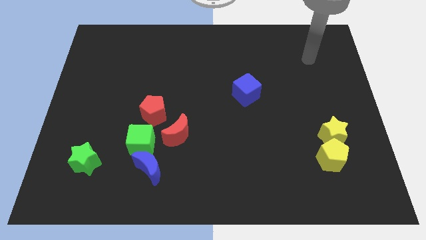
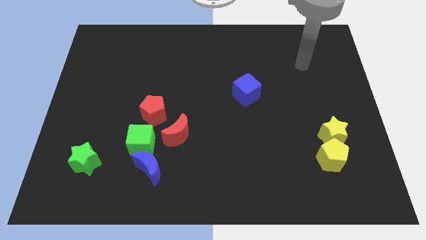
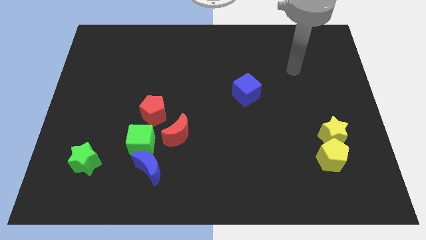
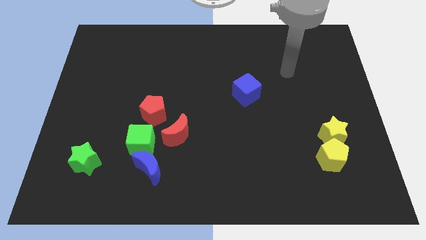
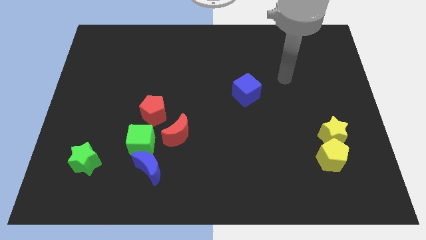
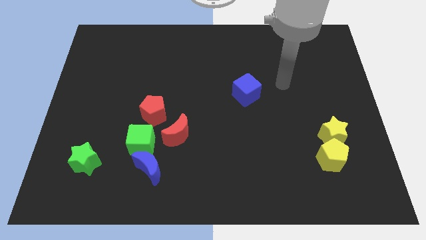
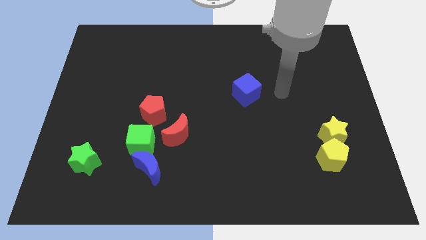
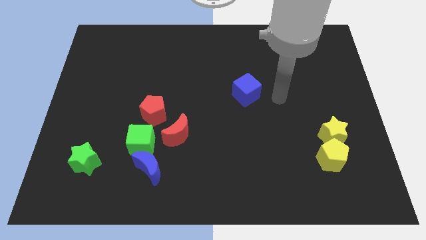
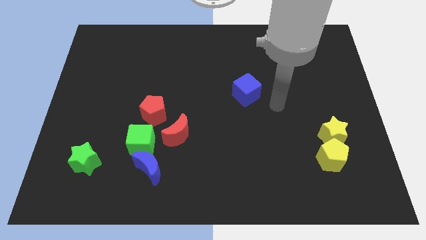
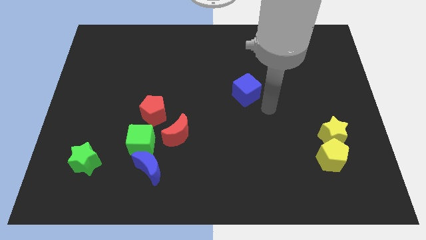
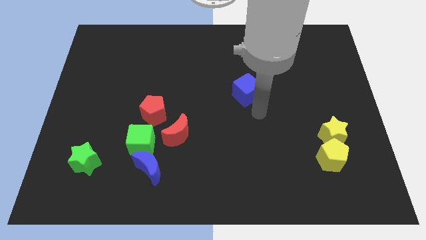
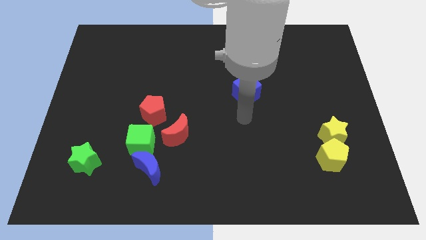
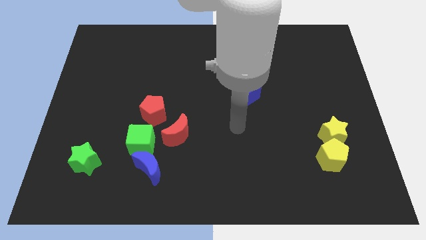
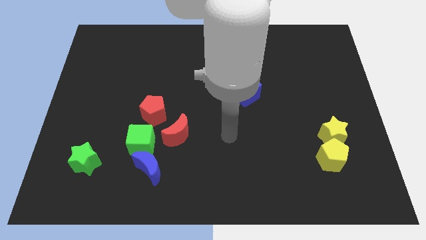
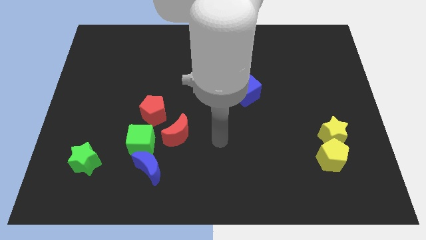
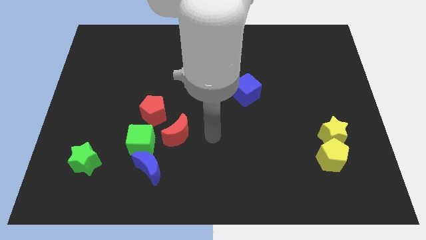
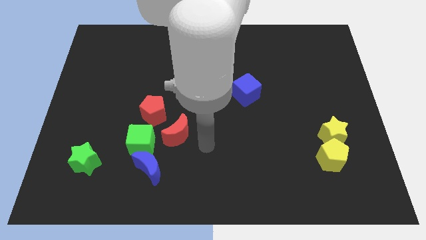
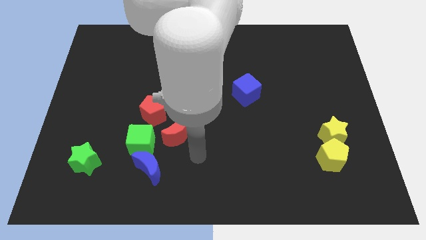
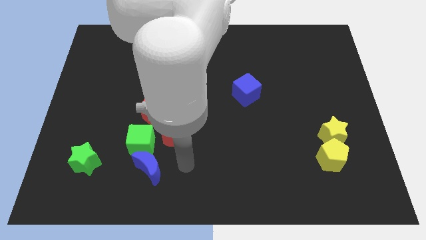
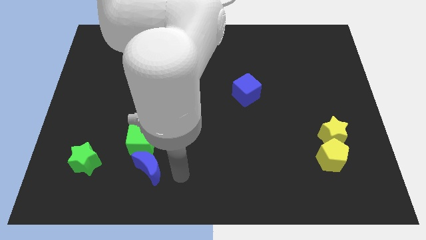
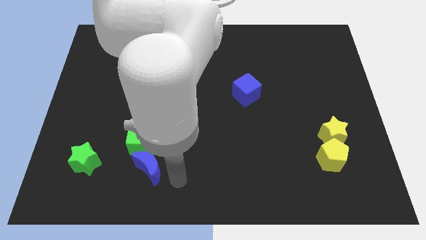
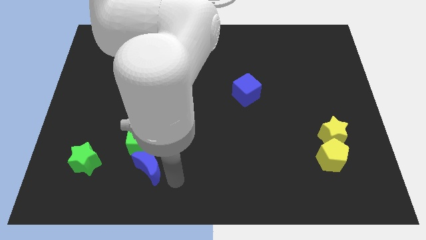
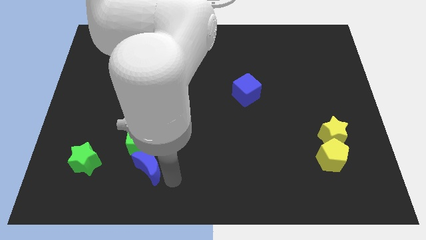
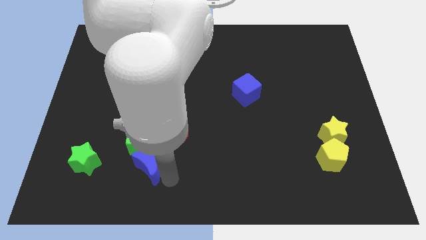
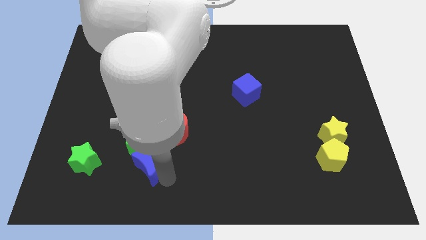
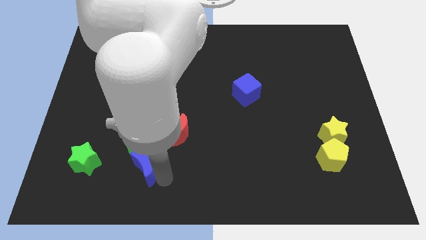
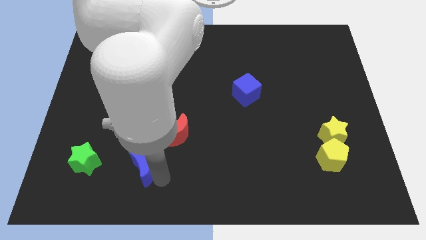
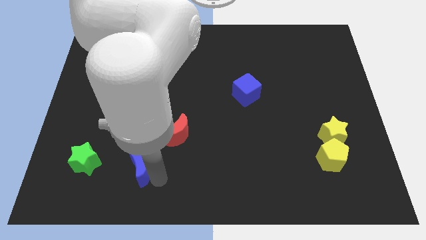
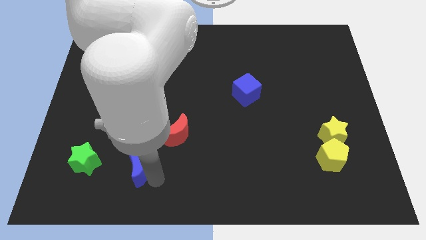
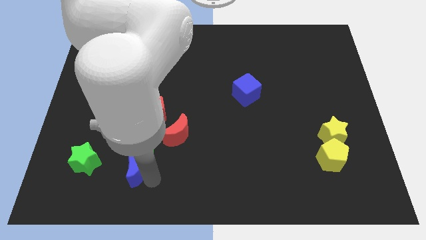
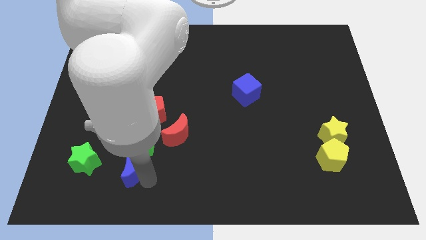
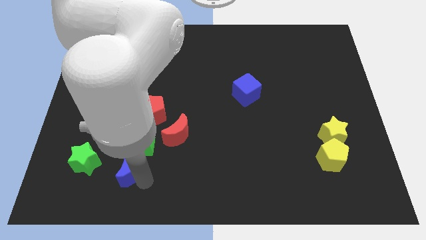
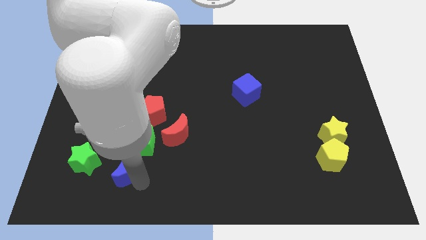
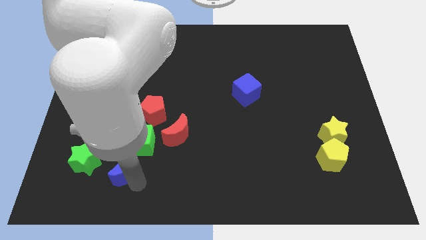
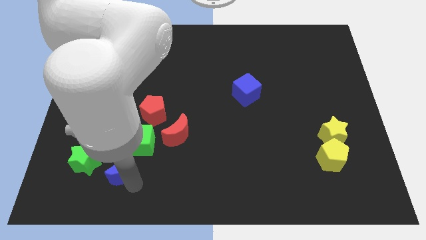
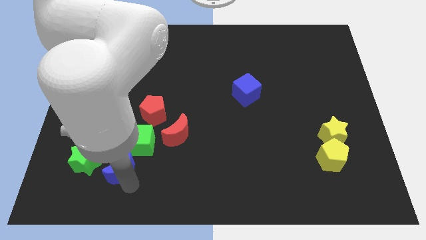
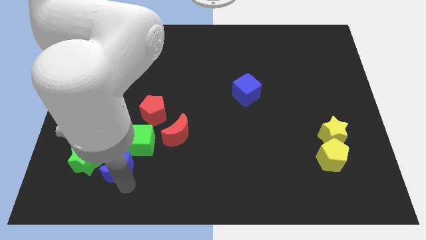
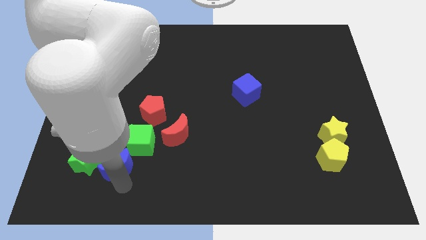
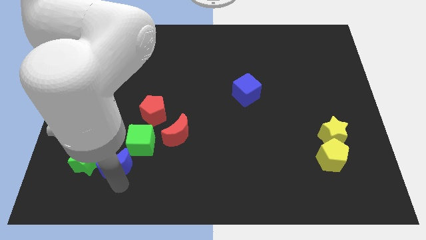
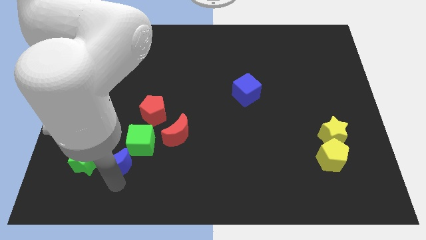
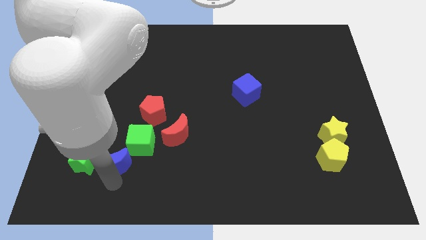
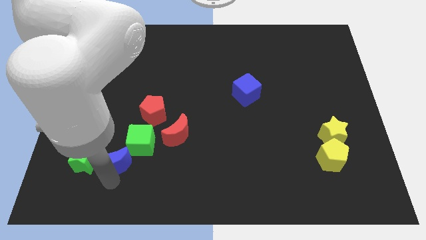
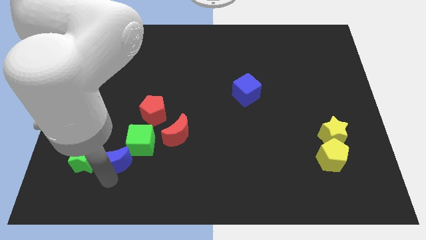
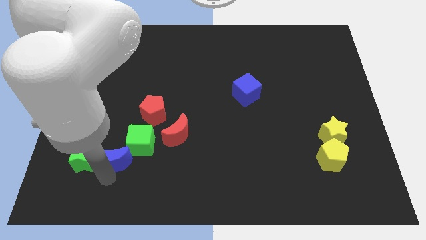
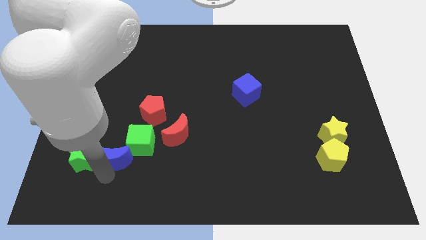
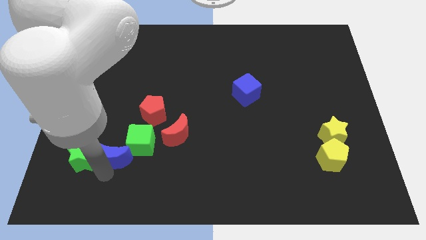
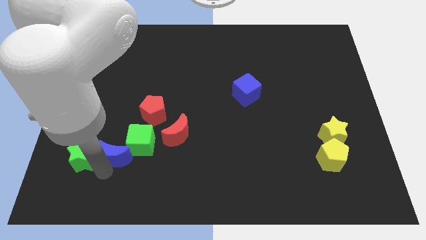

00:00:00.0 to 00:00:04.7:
move the blue moon a little bit diagonally up and to the left

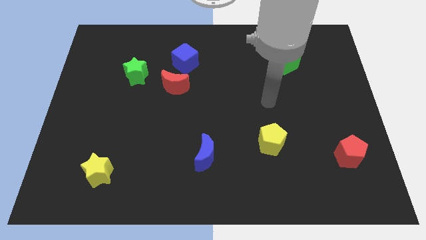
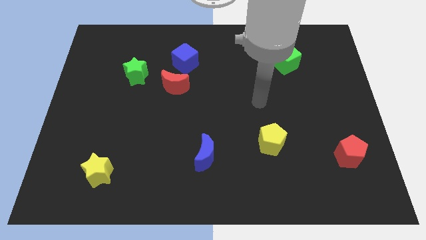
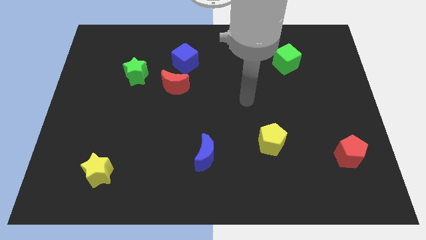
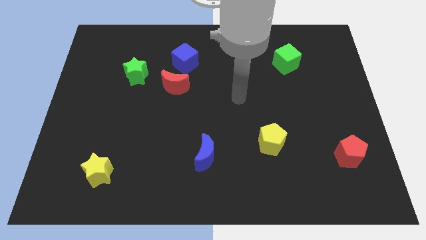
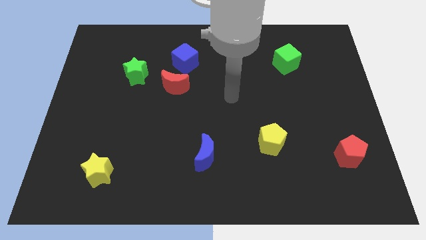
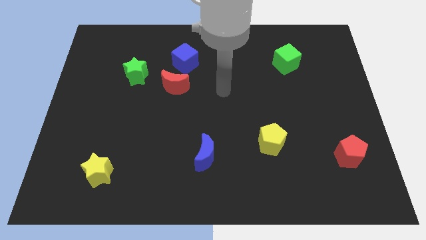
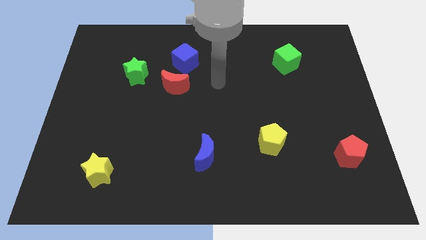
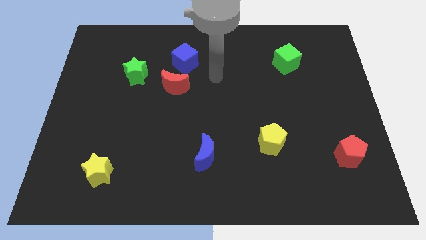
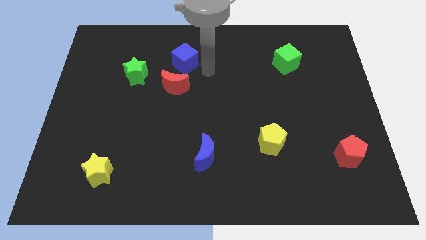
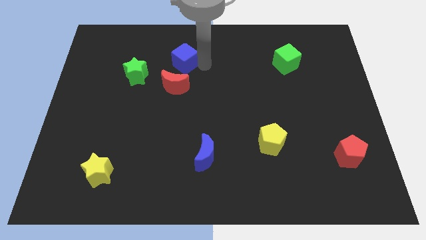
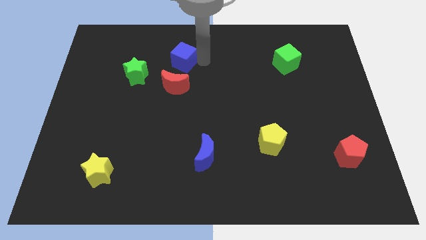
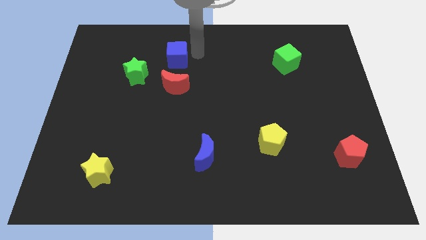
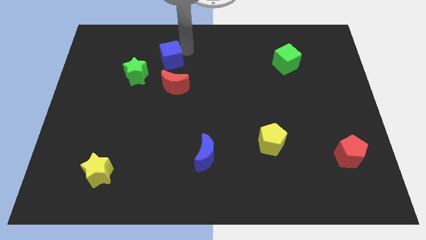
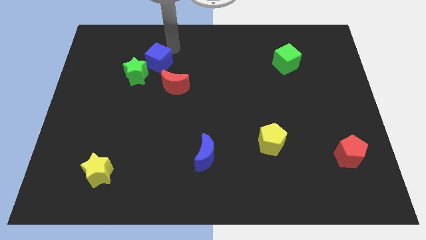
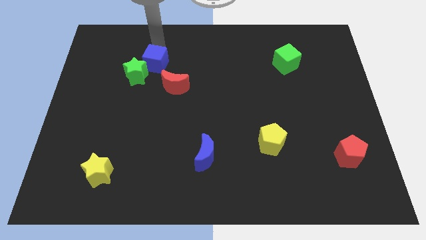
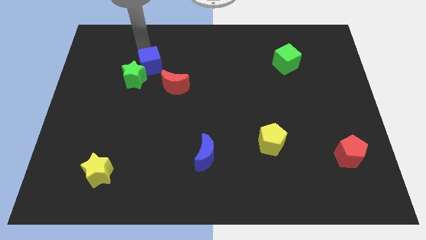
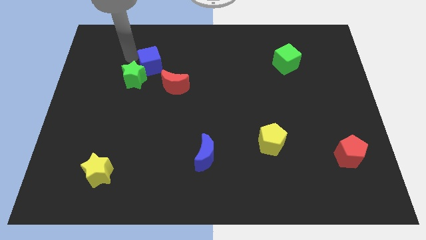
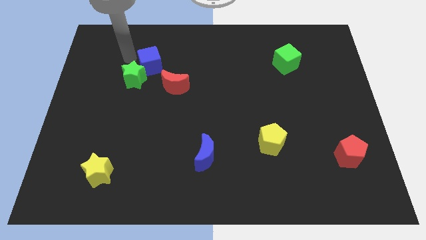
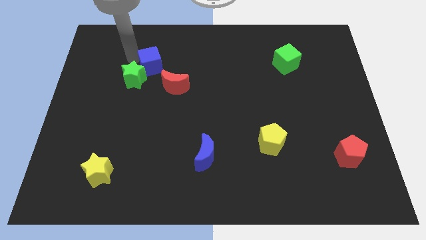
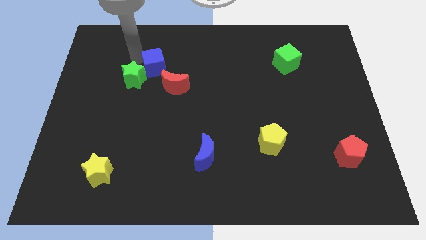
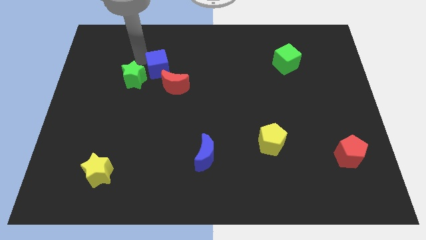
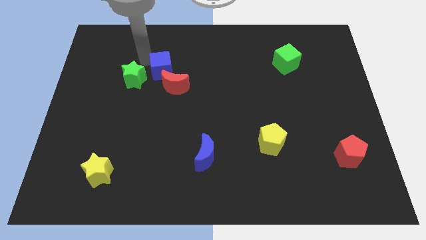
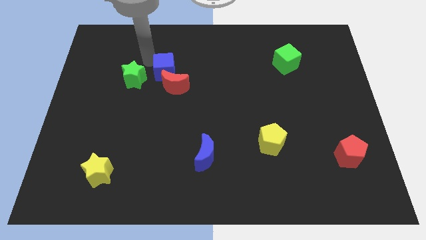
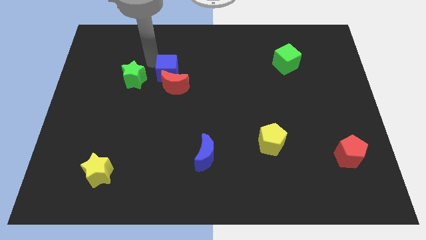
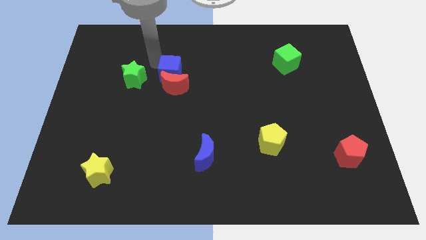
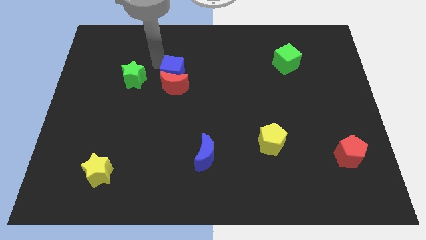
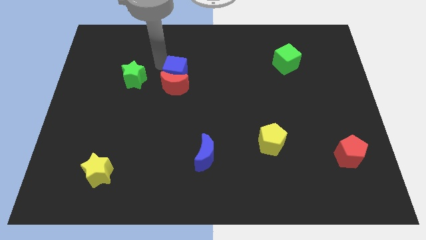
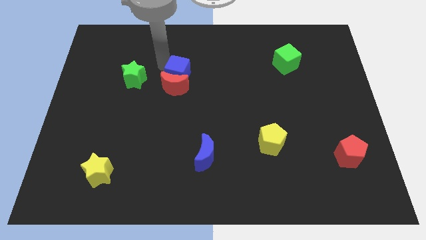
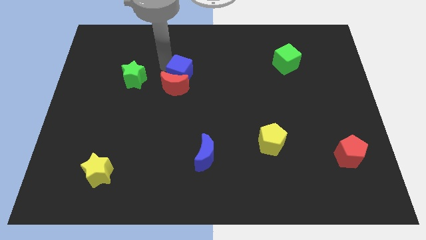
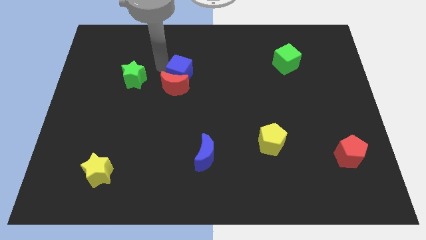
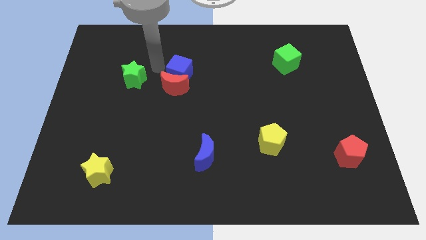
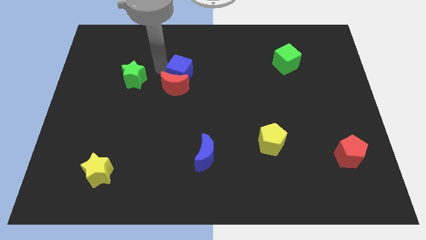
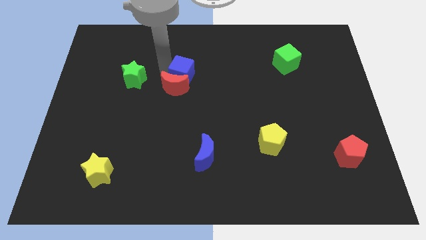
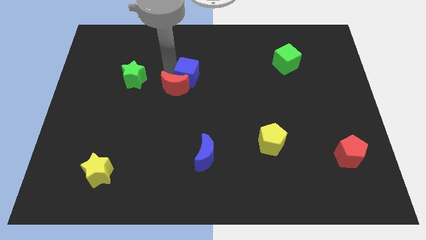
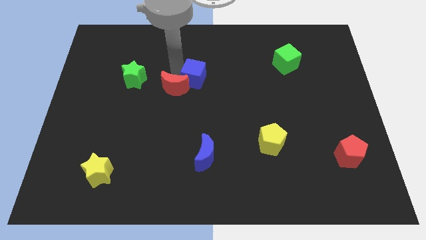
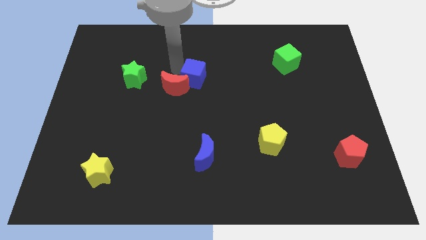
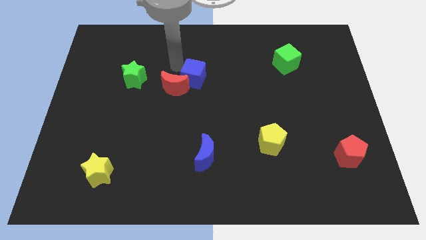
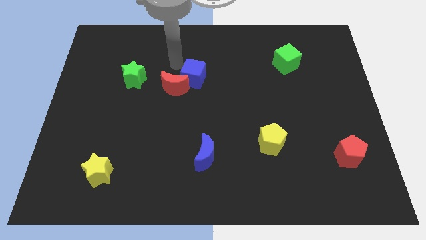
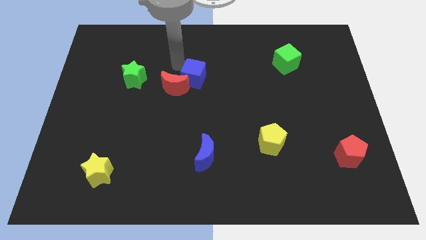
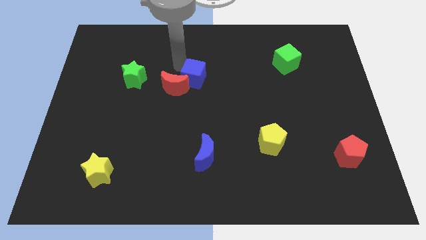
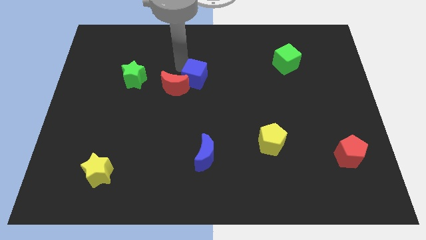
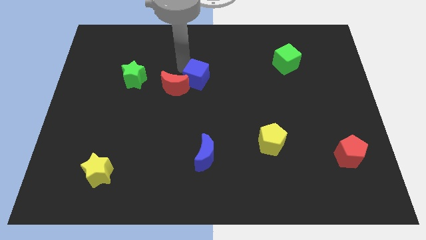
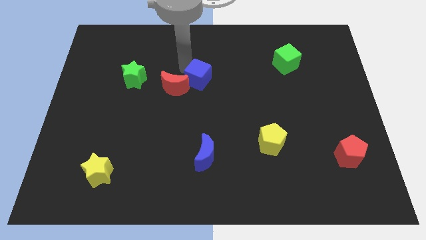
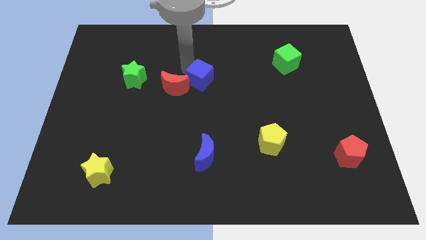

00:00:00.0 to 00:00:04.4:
slightly slide the blue cube downwards and then to the right
